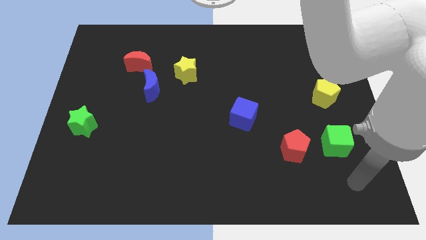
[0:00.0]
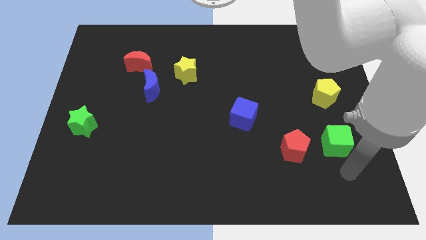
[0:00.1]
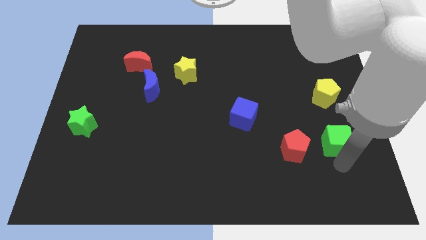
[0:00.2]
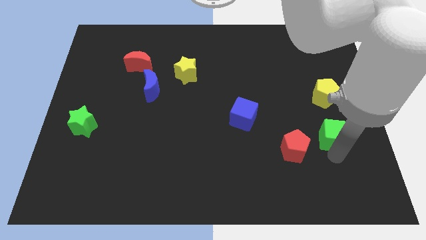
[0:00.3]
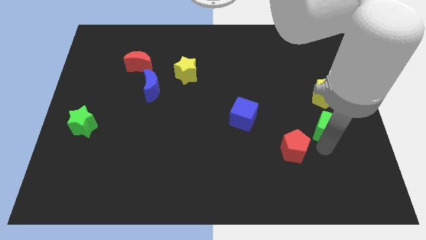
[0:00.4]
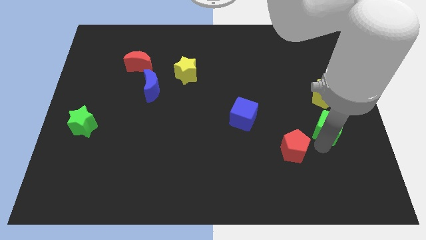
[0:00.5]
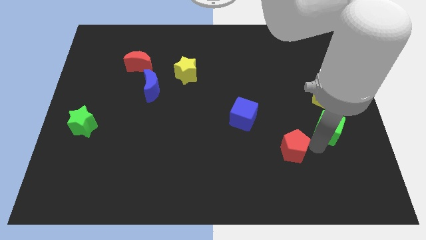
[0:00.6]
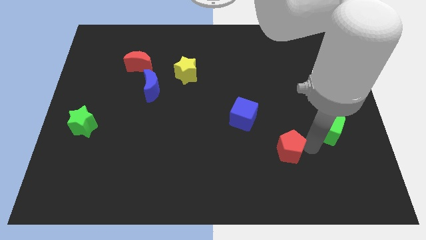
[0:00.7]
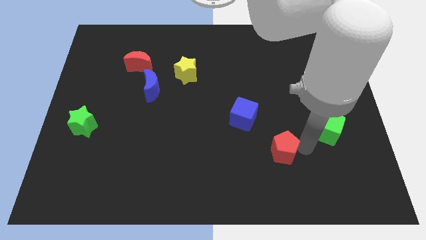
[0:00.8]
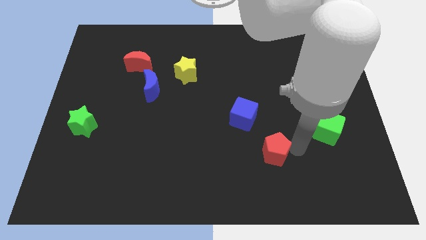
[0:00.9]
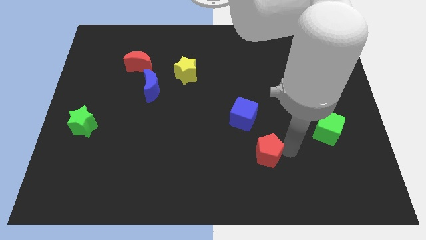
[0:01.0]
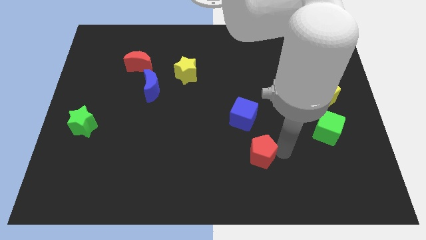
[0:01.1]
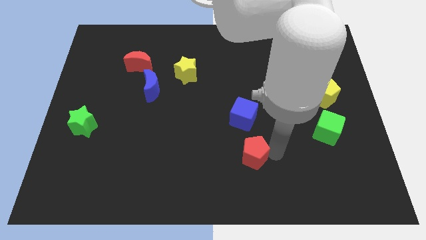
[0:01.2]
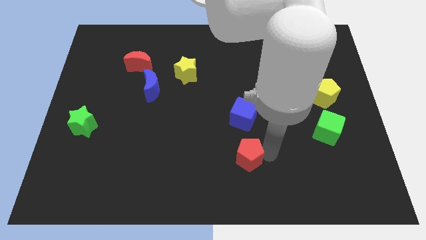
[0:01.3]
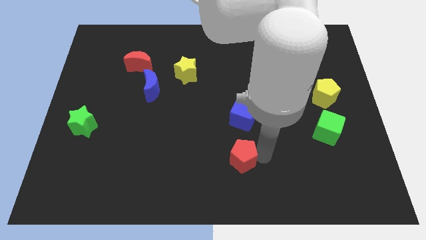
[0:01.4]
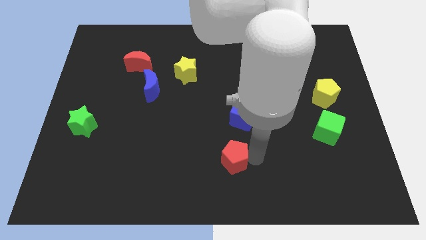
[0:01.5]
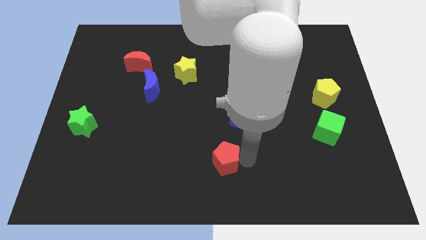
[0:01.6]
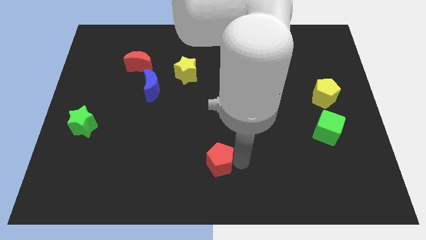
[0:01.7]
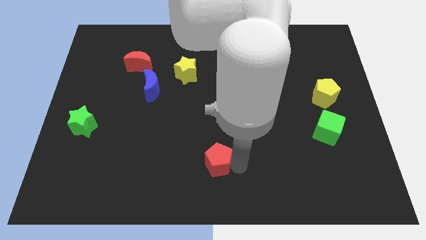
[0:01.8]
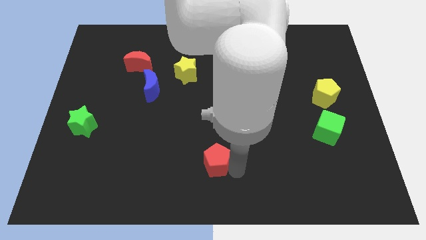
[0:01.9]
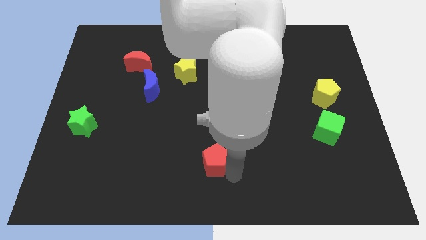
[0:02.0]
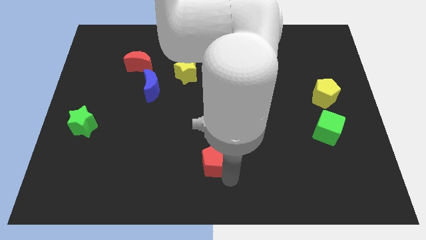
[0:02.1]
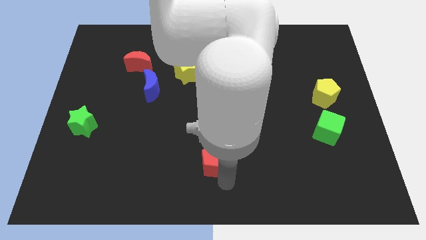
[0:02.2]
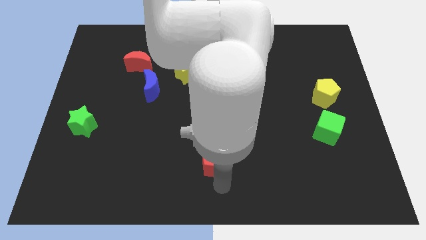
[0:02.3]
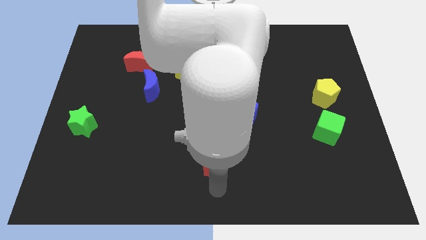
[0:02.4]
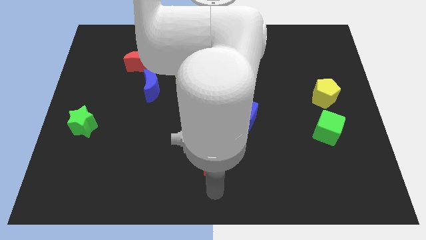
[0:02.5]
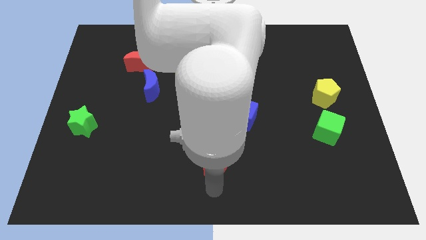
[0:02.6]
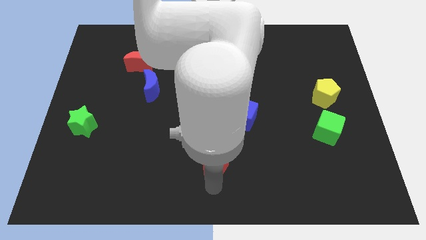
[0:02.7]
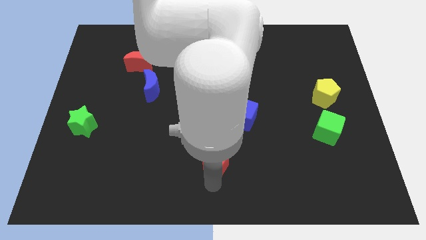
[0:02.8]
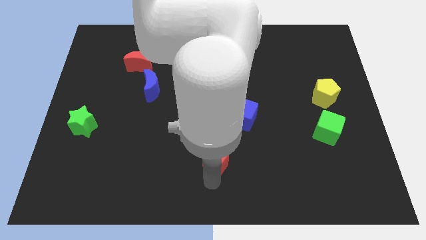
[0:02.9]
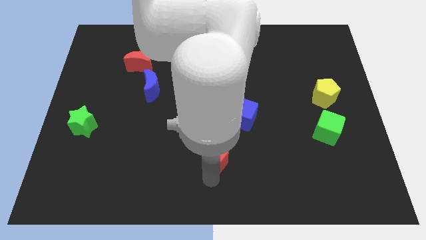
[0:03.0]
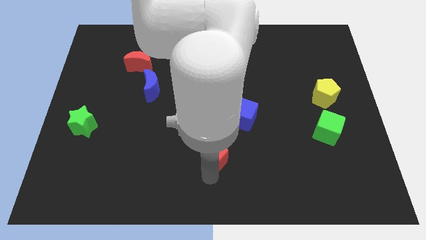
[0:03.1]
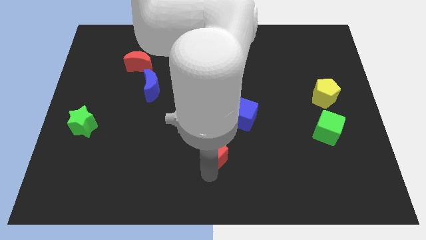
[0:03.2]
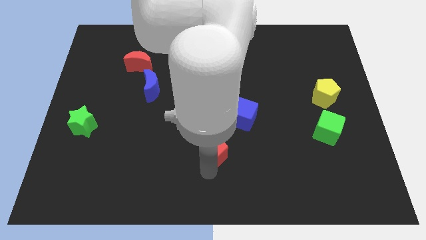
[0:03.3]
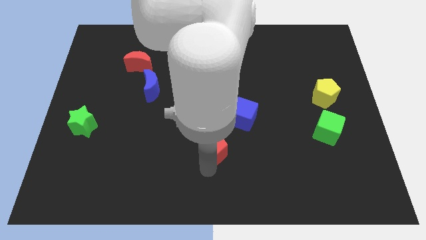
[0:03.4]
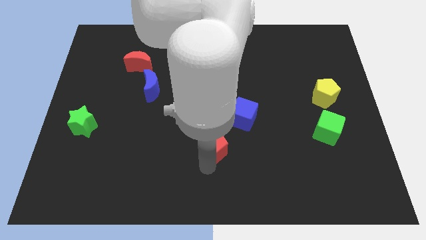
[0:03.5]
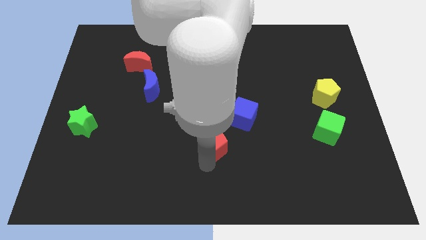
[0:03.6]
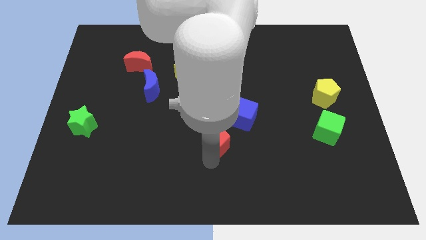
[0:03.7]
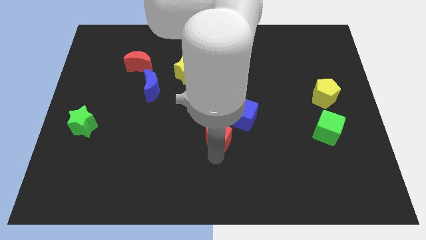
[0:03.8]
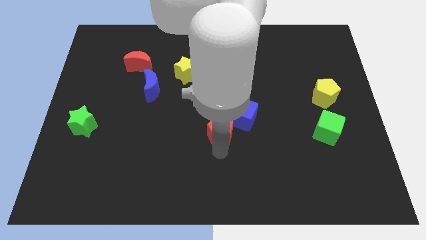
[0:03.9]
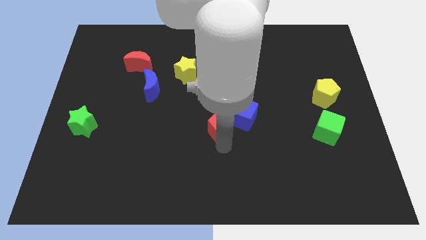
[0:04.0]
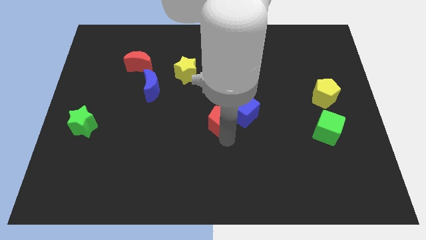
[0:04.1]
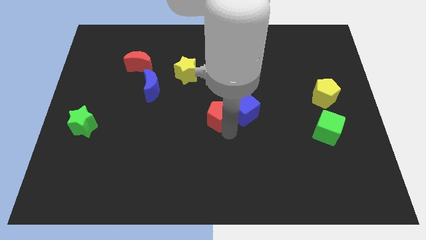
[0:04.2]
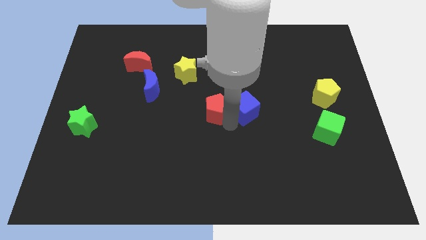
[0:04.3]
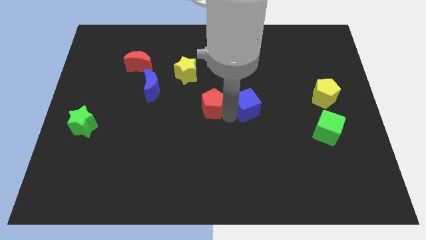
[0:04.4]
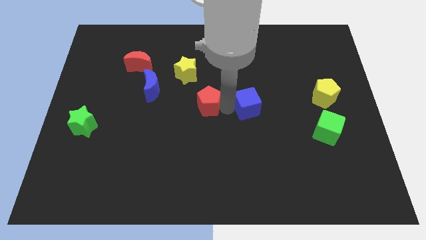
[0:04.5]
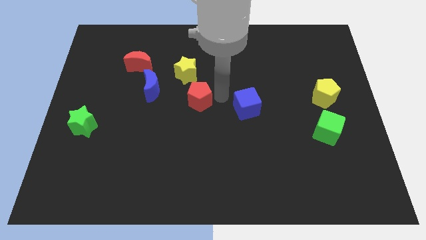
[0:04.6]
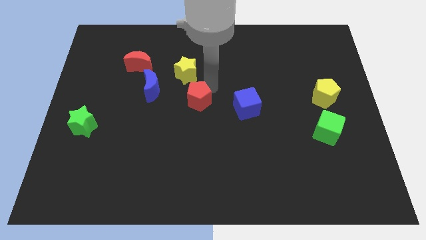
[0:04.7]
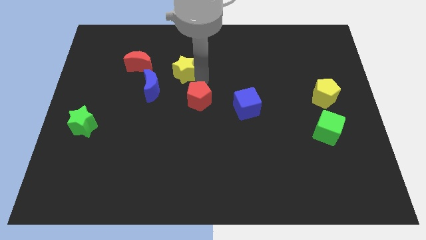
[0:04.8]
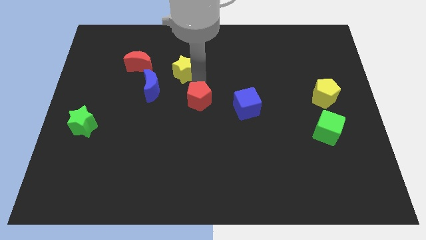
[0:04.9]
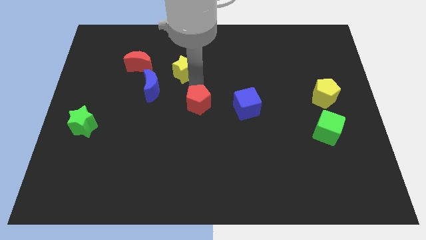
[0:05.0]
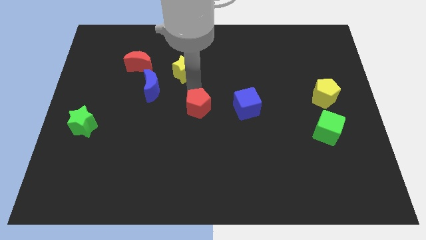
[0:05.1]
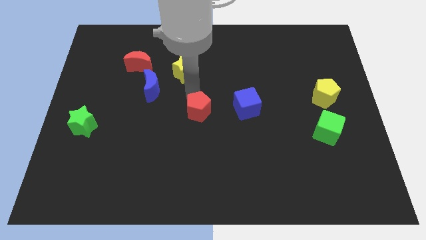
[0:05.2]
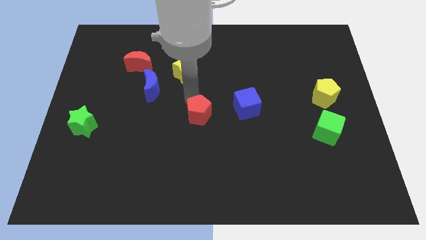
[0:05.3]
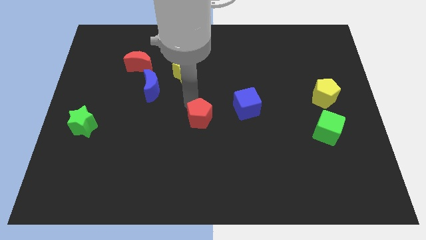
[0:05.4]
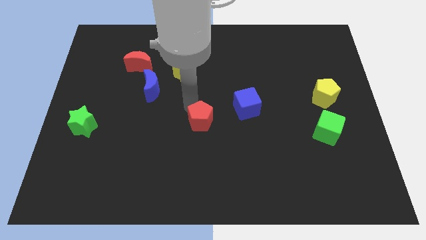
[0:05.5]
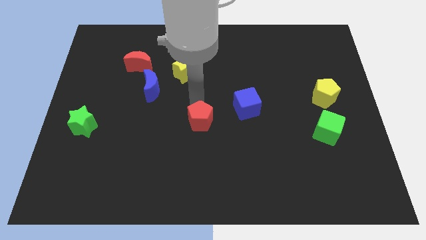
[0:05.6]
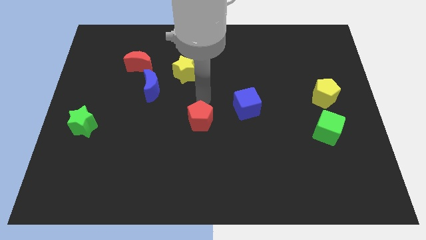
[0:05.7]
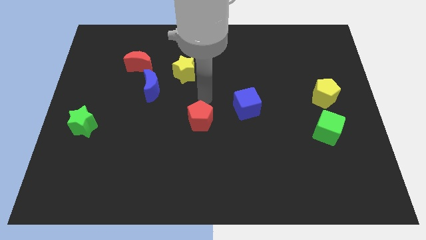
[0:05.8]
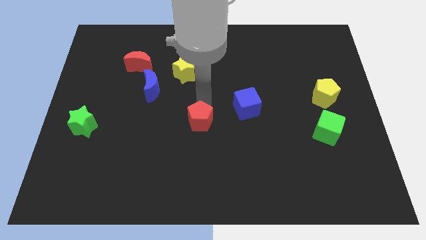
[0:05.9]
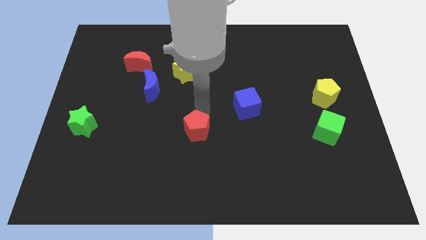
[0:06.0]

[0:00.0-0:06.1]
slide the red pentagon to the left

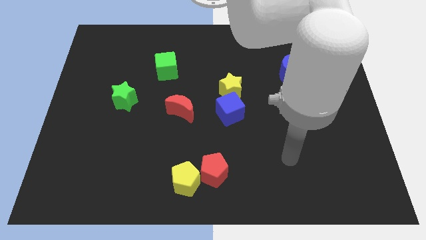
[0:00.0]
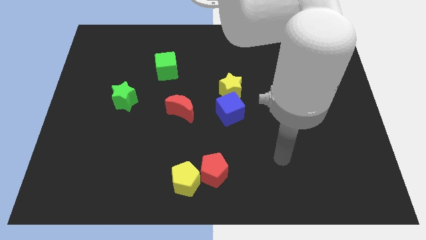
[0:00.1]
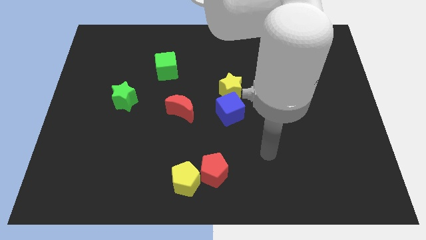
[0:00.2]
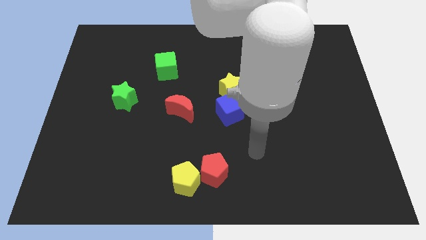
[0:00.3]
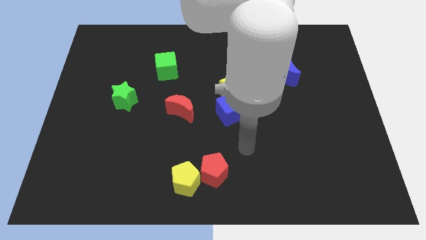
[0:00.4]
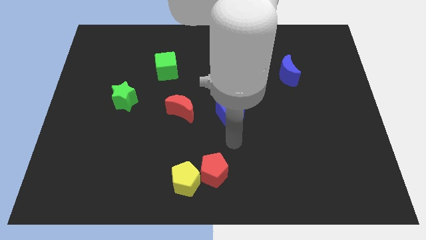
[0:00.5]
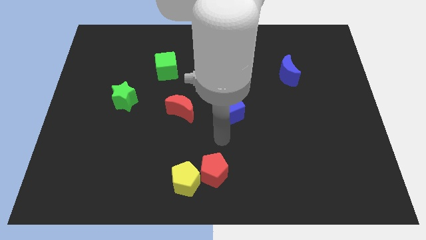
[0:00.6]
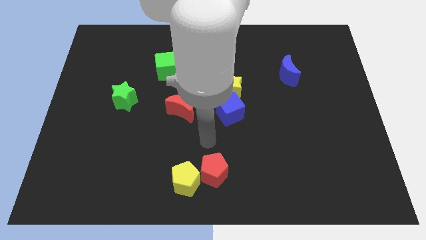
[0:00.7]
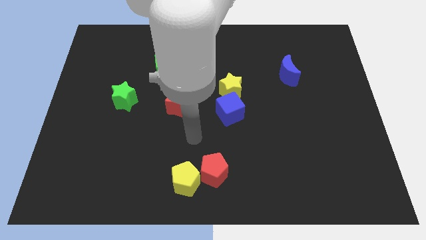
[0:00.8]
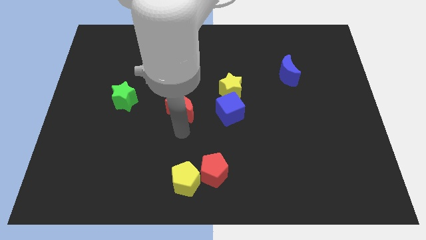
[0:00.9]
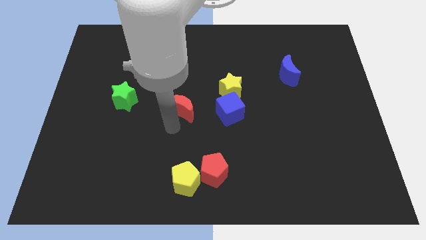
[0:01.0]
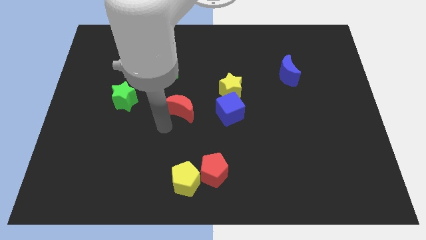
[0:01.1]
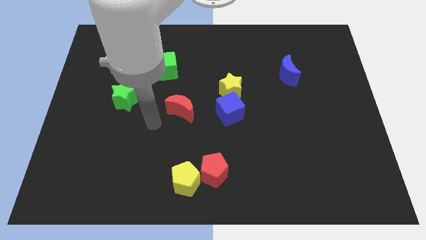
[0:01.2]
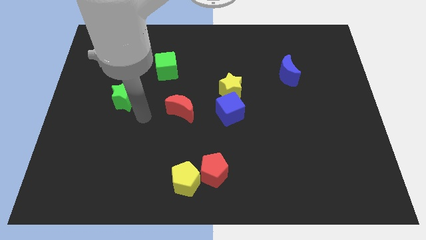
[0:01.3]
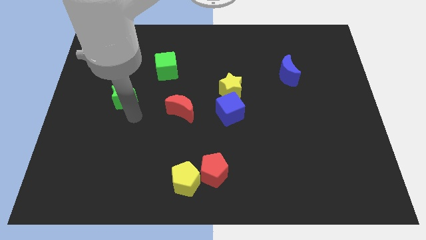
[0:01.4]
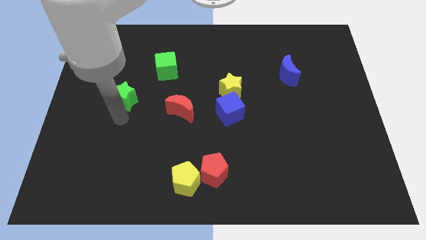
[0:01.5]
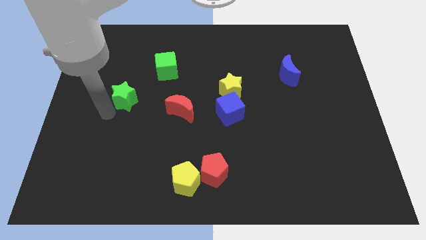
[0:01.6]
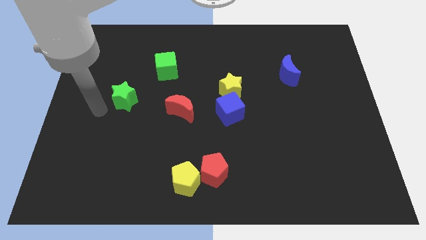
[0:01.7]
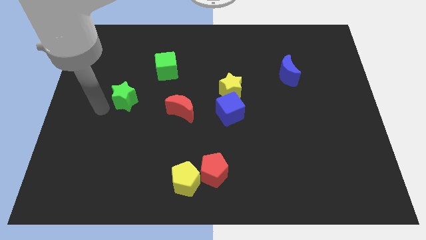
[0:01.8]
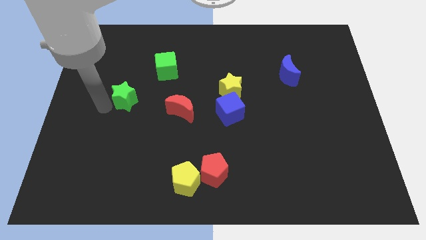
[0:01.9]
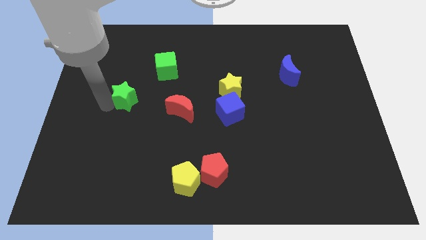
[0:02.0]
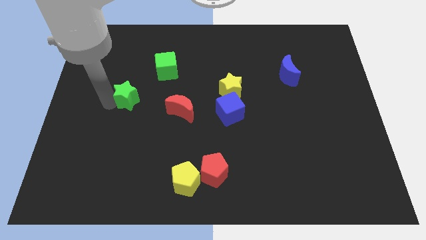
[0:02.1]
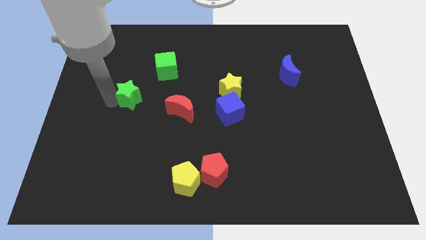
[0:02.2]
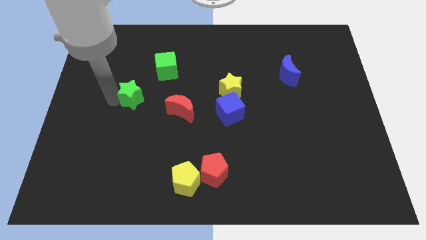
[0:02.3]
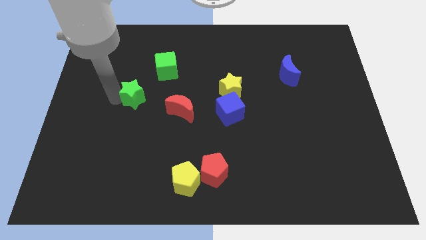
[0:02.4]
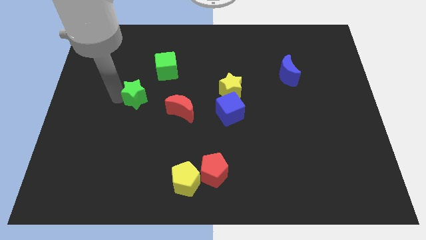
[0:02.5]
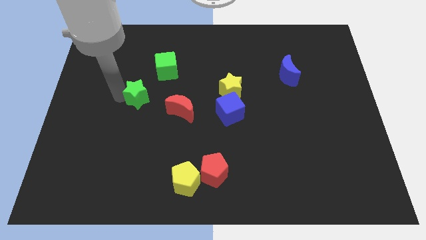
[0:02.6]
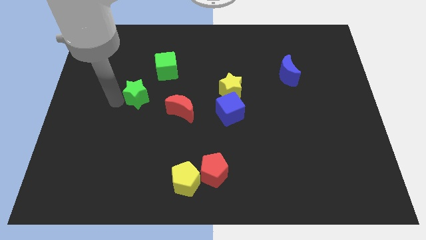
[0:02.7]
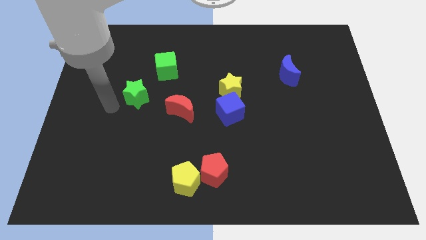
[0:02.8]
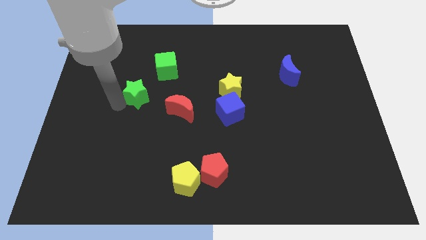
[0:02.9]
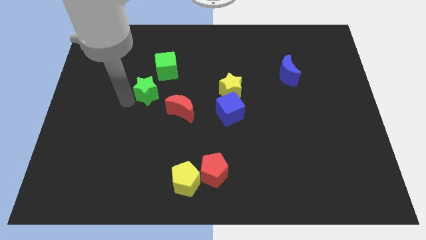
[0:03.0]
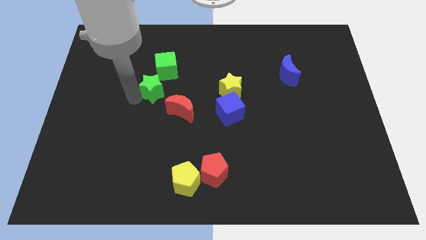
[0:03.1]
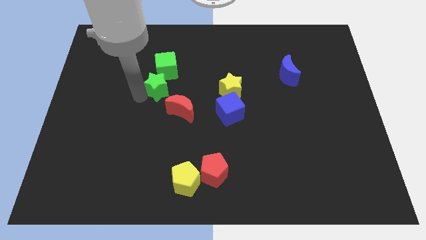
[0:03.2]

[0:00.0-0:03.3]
push the green star diagonally up and to the right a bit
